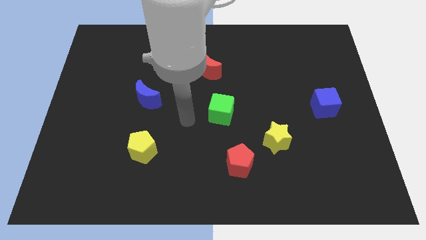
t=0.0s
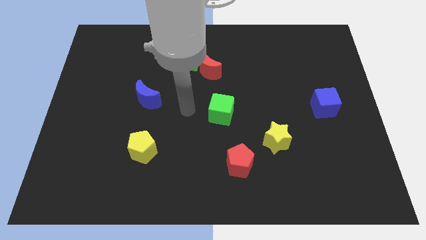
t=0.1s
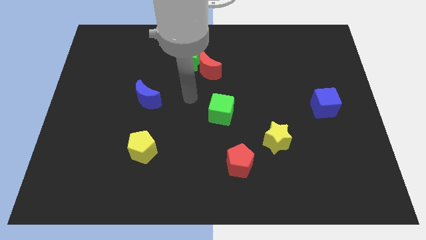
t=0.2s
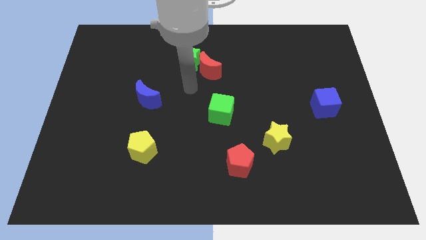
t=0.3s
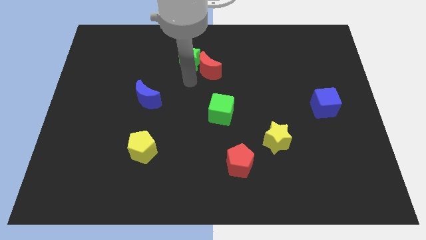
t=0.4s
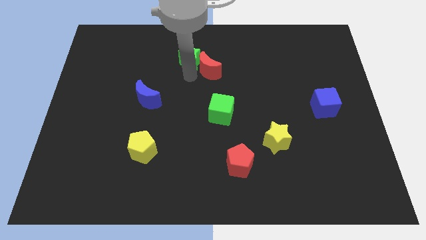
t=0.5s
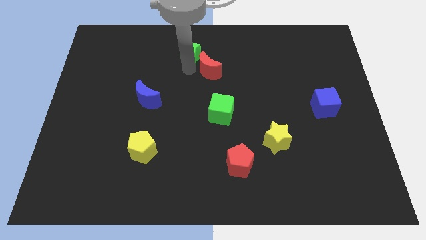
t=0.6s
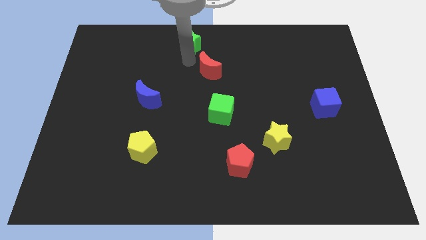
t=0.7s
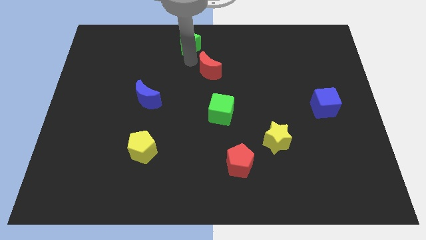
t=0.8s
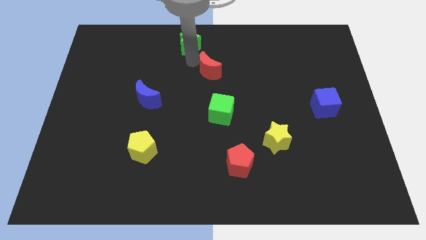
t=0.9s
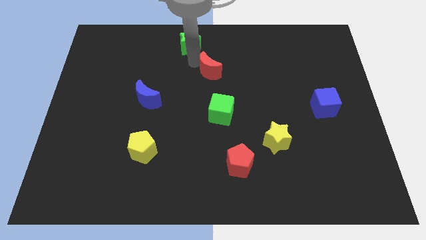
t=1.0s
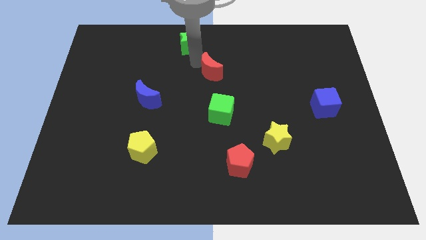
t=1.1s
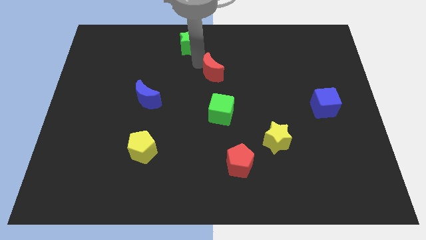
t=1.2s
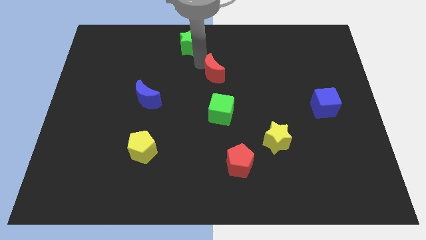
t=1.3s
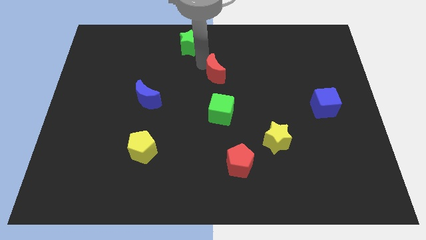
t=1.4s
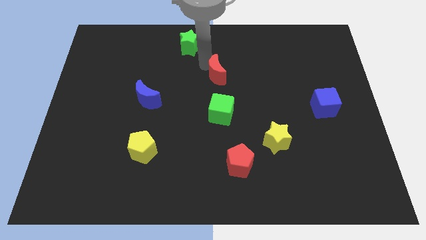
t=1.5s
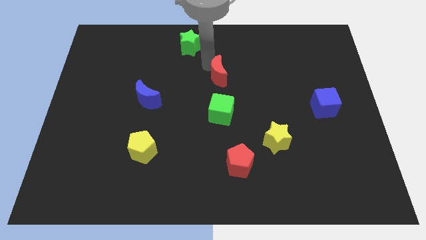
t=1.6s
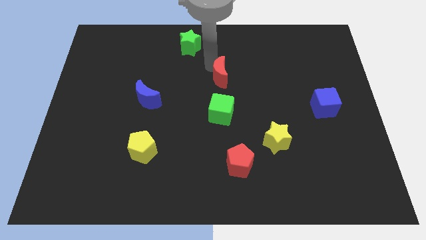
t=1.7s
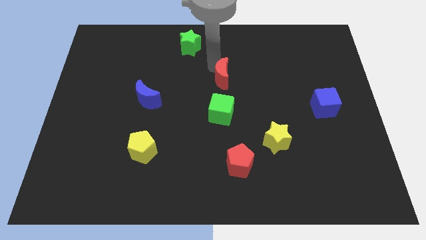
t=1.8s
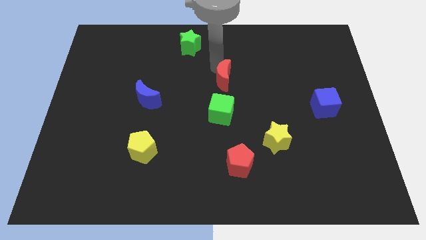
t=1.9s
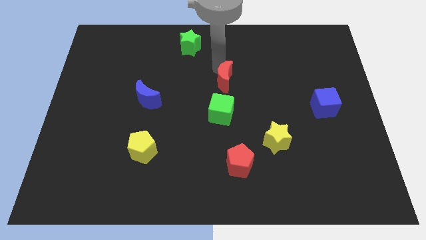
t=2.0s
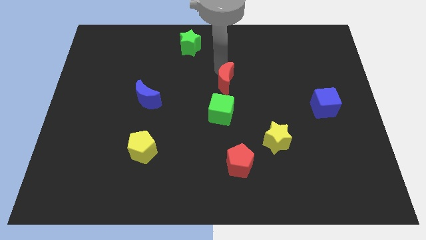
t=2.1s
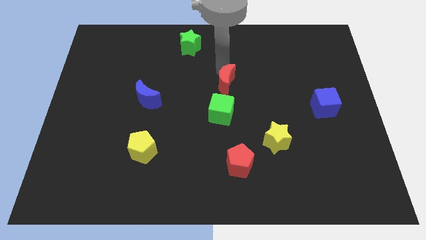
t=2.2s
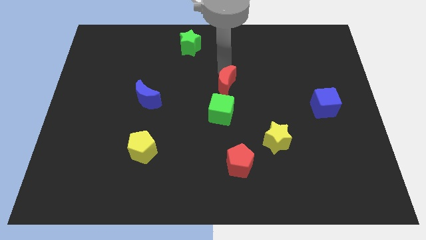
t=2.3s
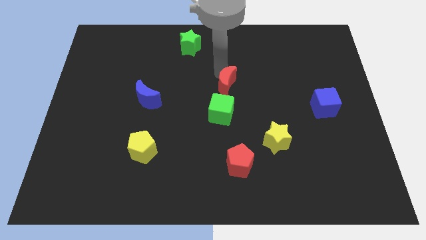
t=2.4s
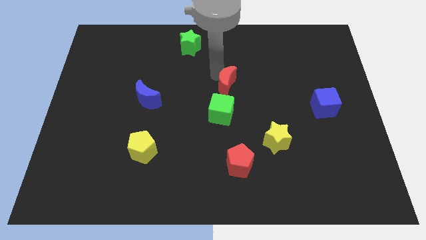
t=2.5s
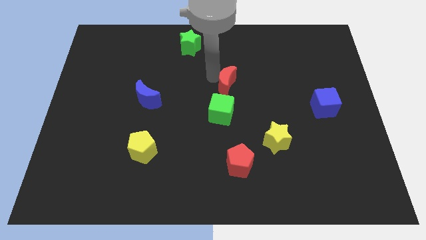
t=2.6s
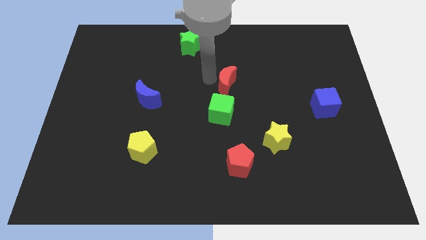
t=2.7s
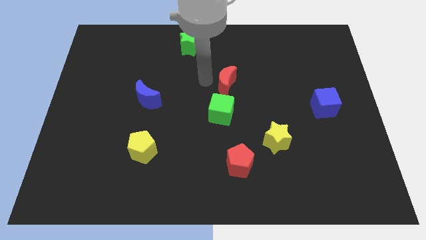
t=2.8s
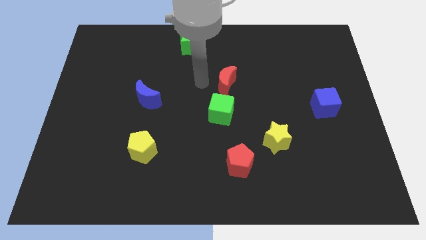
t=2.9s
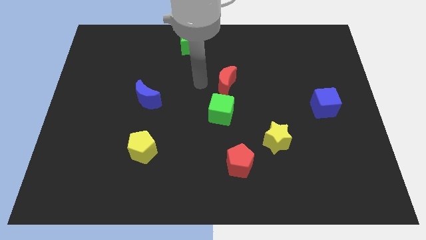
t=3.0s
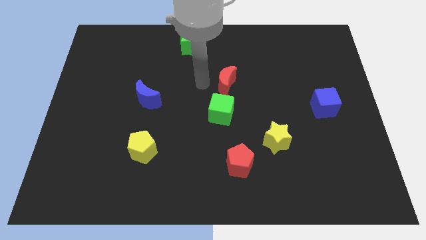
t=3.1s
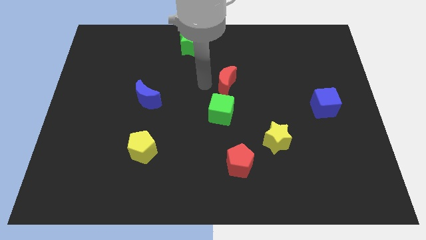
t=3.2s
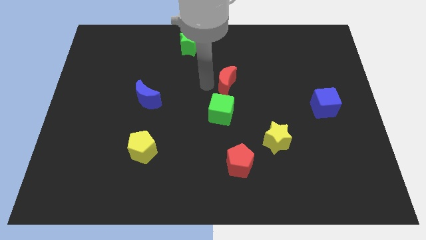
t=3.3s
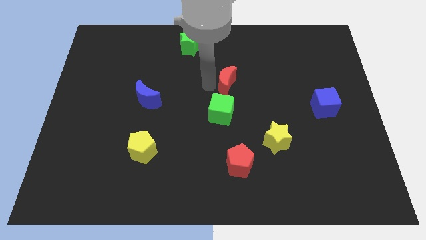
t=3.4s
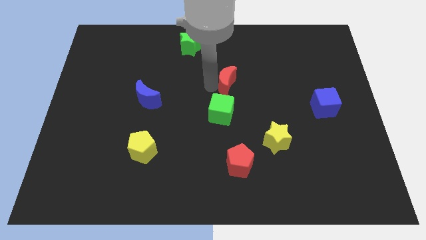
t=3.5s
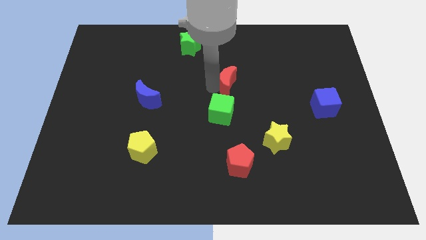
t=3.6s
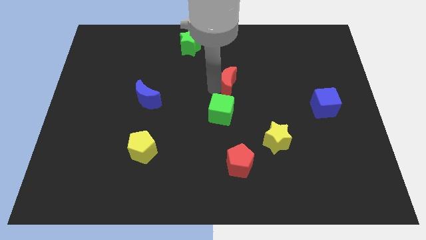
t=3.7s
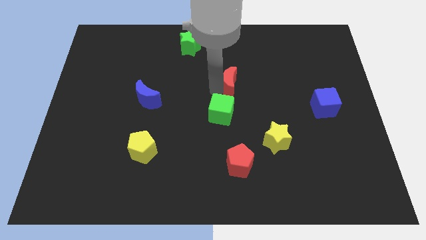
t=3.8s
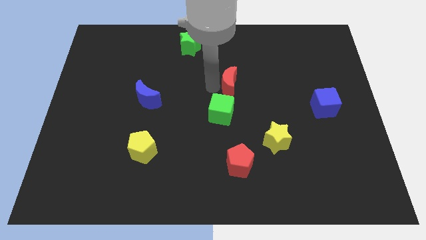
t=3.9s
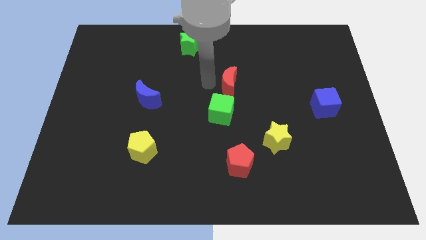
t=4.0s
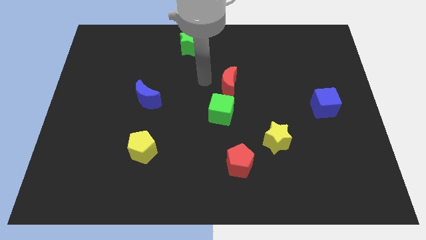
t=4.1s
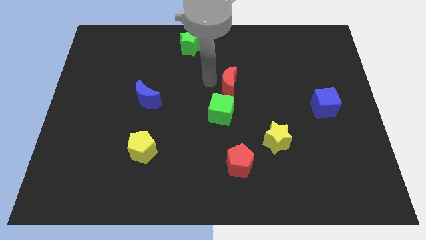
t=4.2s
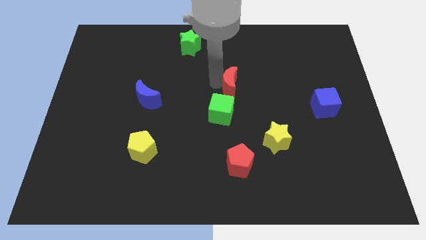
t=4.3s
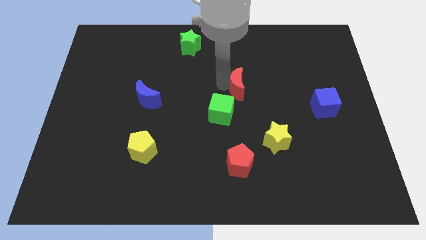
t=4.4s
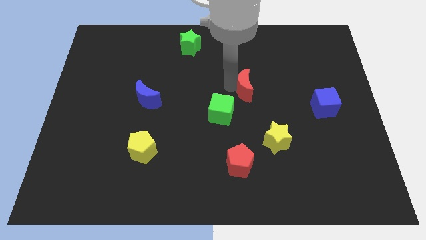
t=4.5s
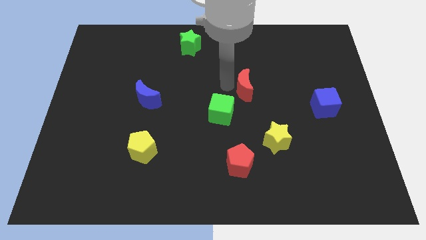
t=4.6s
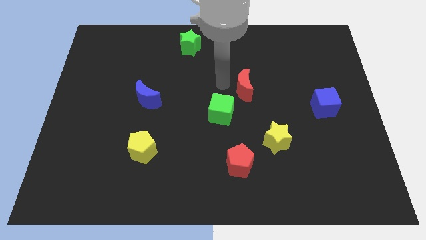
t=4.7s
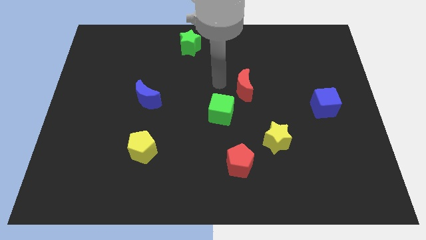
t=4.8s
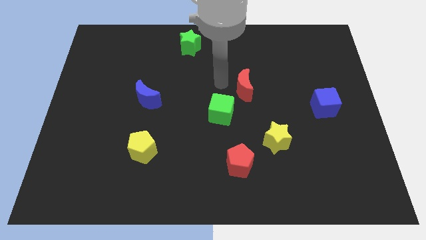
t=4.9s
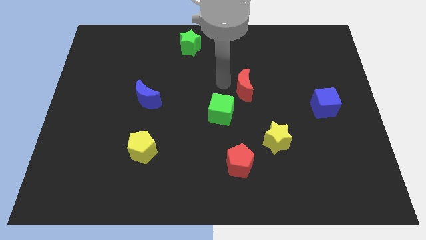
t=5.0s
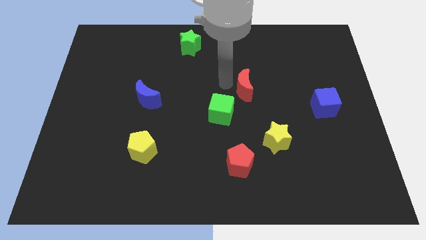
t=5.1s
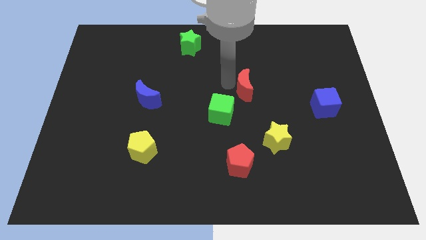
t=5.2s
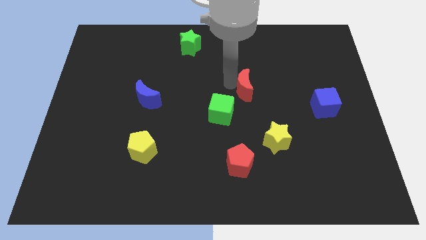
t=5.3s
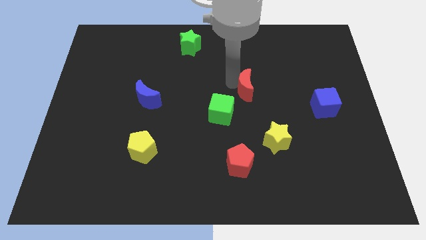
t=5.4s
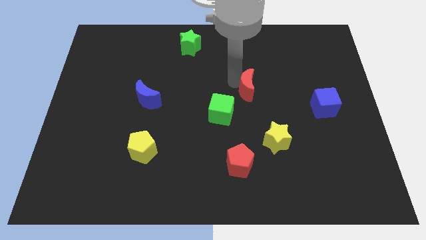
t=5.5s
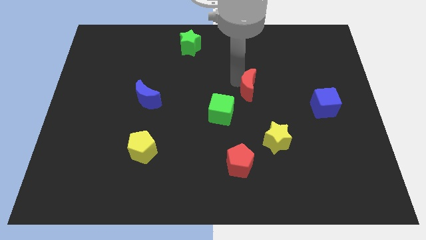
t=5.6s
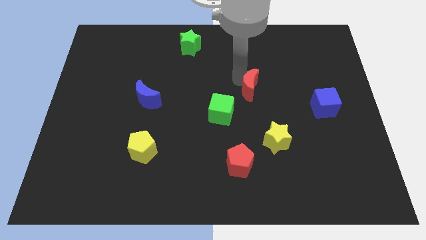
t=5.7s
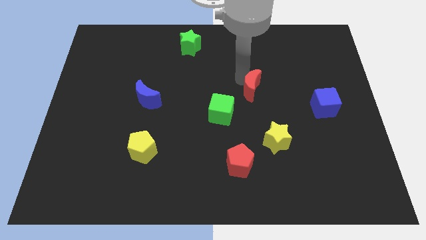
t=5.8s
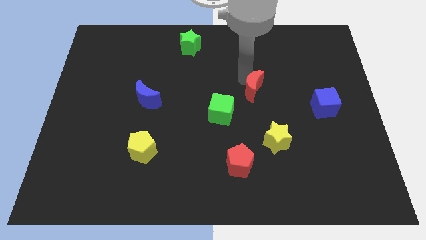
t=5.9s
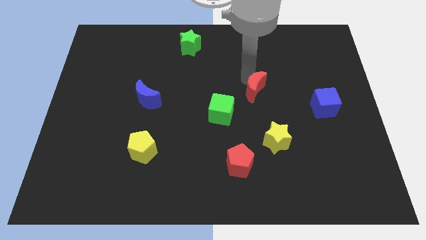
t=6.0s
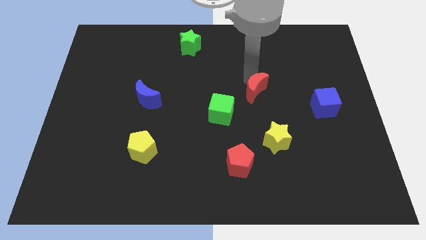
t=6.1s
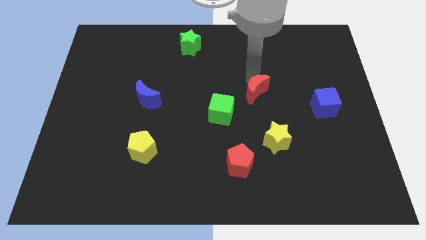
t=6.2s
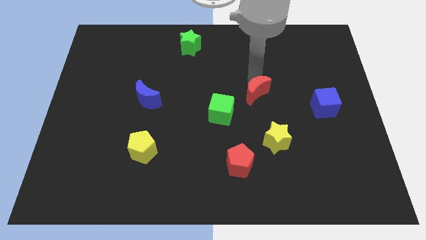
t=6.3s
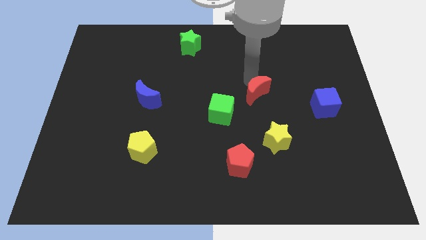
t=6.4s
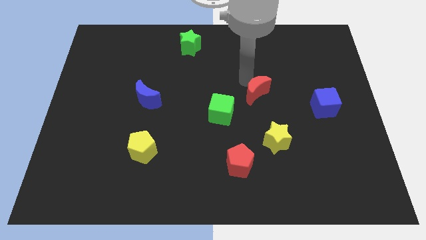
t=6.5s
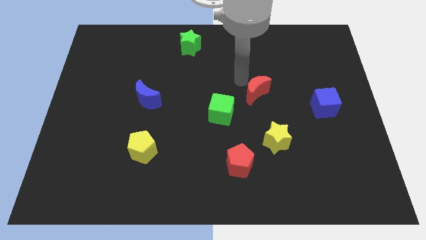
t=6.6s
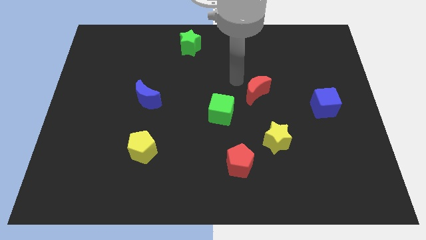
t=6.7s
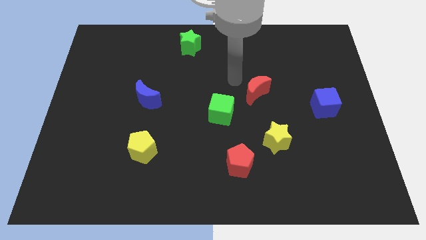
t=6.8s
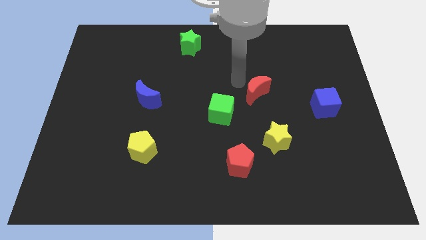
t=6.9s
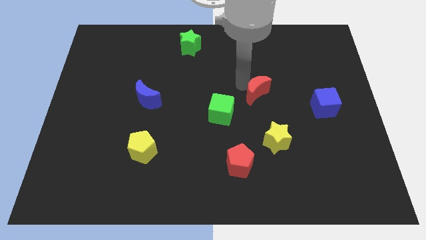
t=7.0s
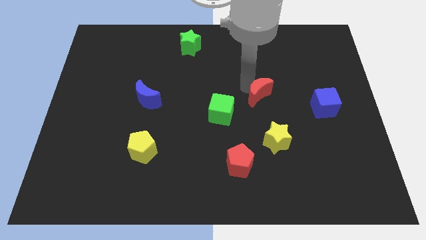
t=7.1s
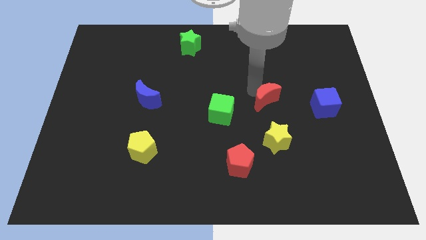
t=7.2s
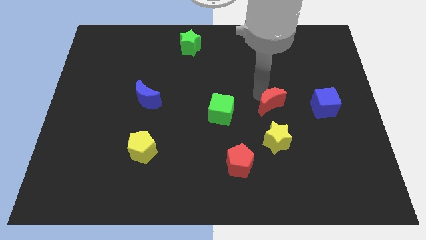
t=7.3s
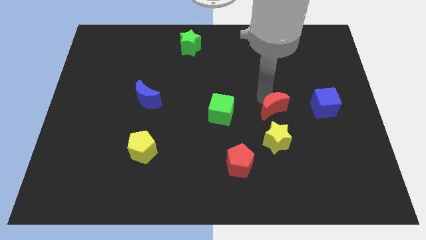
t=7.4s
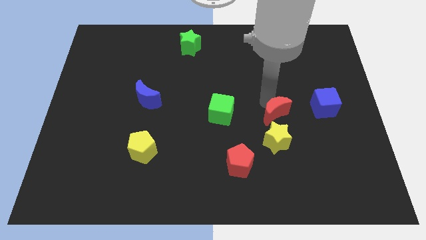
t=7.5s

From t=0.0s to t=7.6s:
slide the red moon down and then to the right

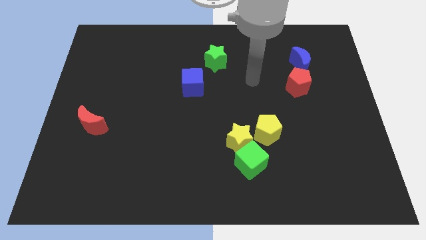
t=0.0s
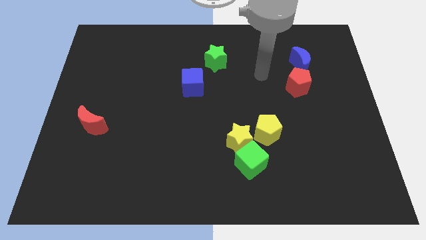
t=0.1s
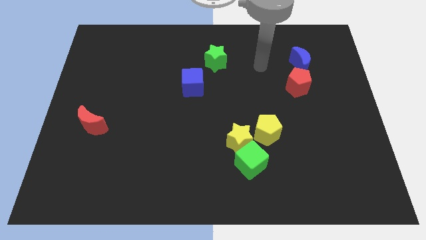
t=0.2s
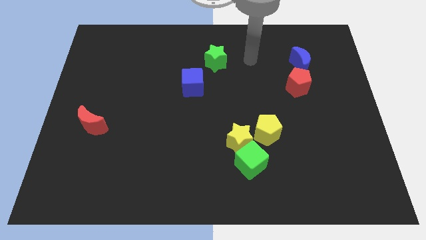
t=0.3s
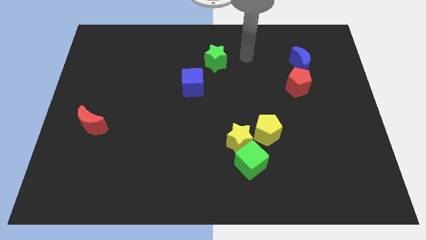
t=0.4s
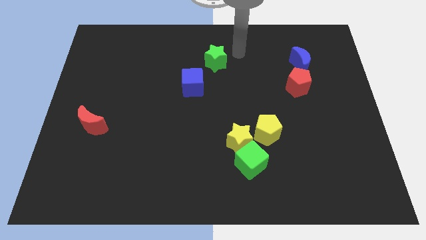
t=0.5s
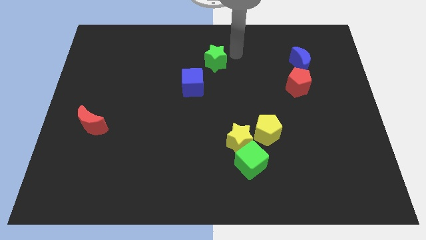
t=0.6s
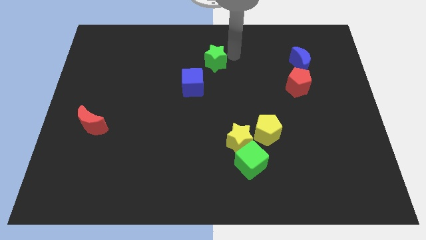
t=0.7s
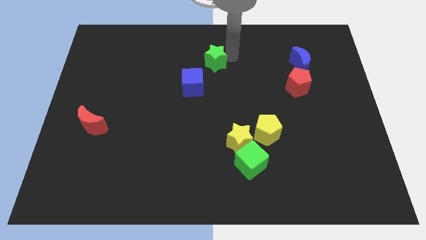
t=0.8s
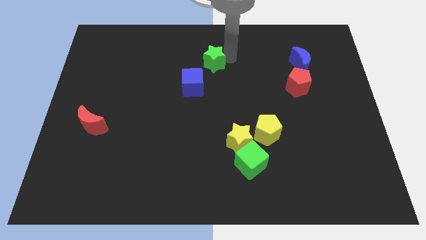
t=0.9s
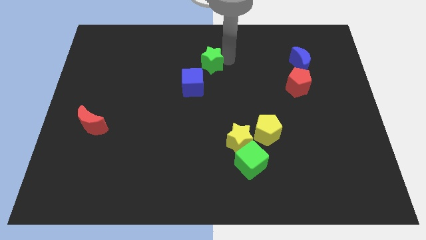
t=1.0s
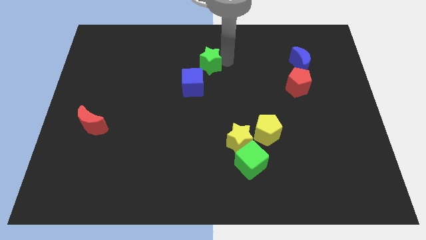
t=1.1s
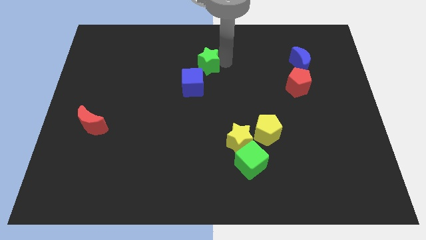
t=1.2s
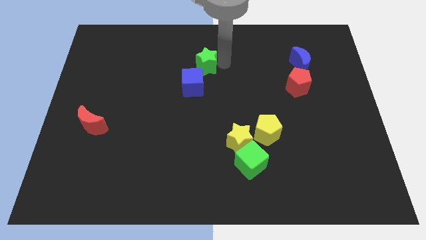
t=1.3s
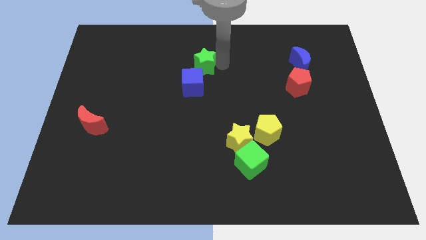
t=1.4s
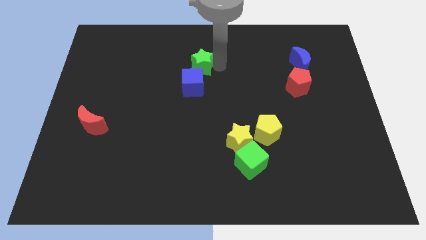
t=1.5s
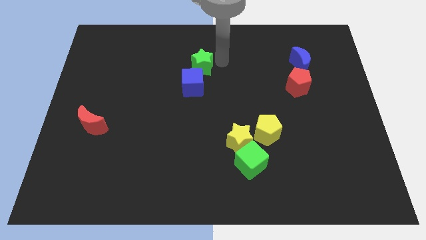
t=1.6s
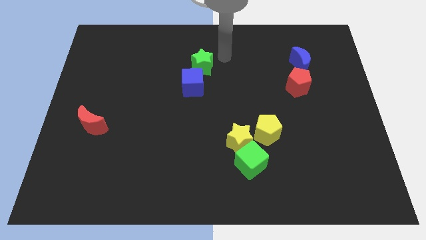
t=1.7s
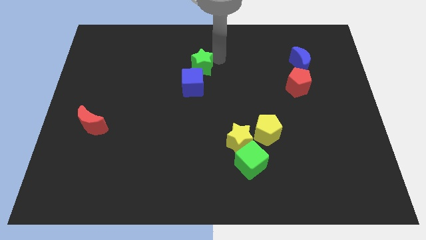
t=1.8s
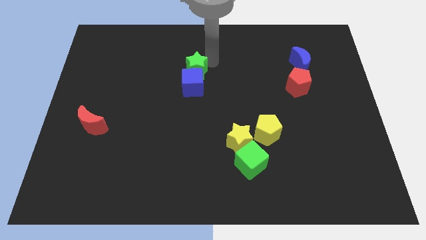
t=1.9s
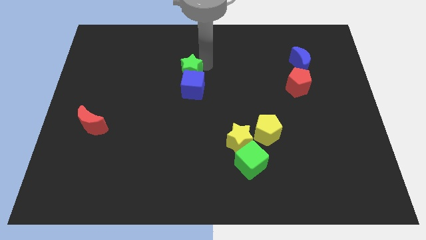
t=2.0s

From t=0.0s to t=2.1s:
push the green star downwards and to the left diagonally a little bit
